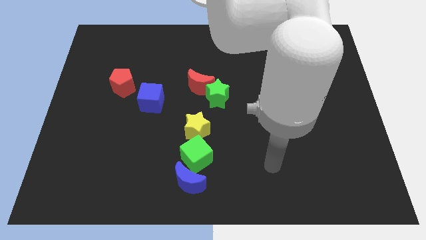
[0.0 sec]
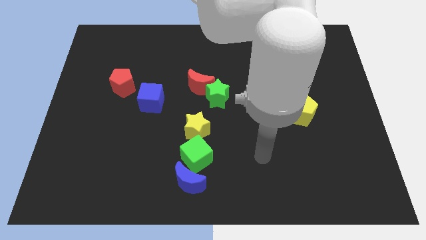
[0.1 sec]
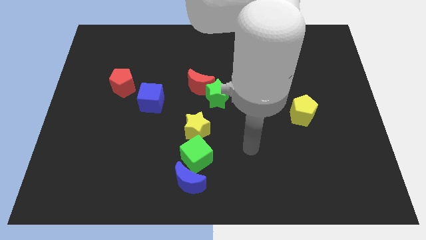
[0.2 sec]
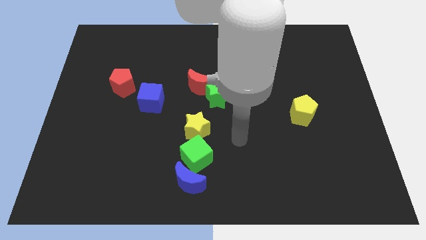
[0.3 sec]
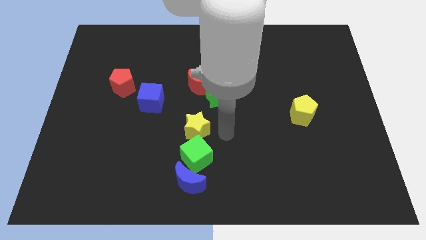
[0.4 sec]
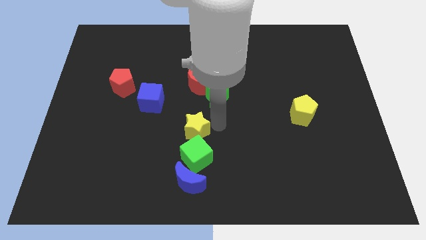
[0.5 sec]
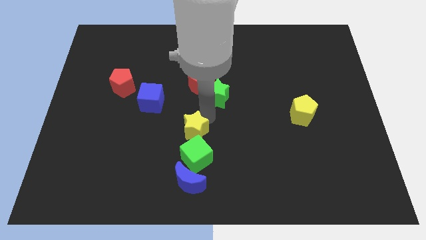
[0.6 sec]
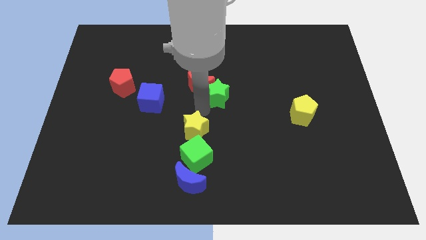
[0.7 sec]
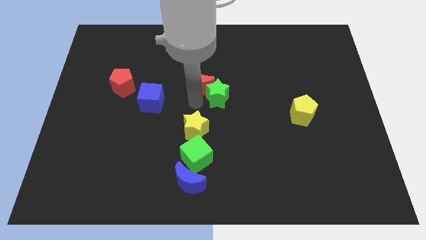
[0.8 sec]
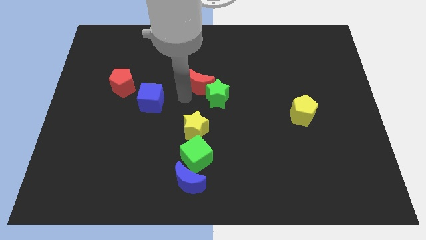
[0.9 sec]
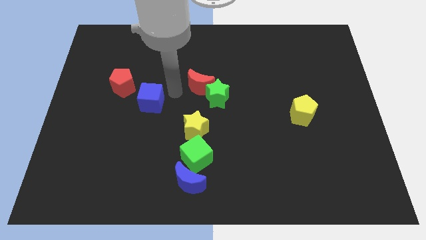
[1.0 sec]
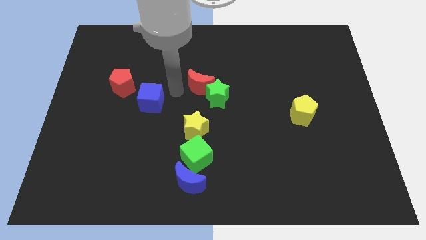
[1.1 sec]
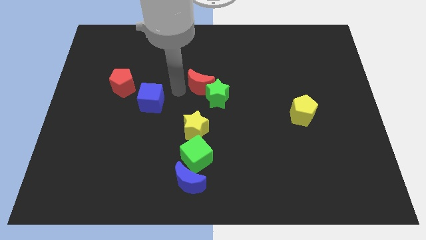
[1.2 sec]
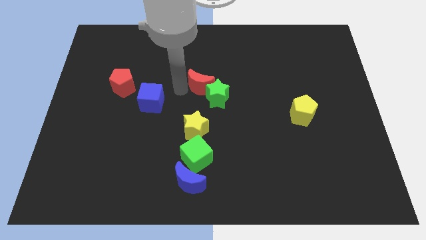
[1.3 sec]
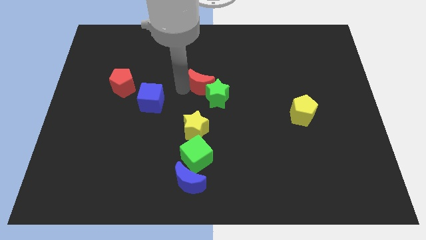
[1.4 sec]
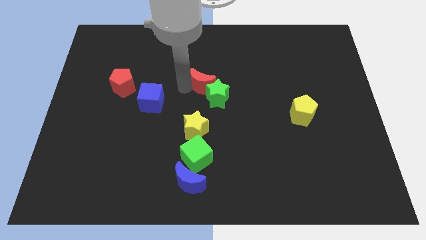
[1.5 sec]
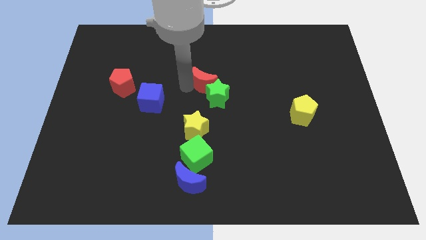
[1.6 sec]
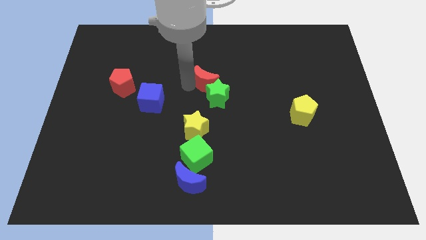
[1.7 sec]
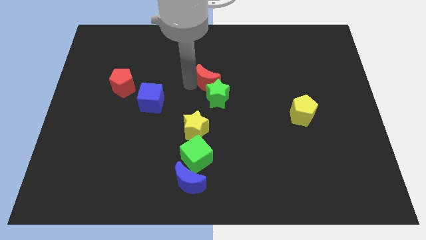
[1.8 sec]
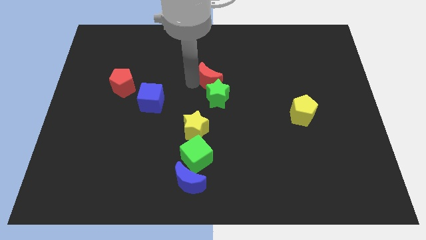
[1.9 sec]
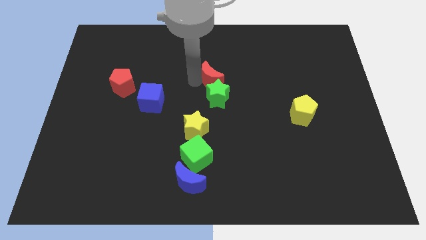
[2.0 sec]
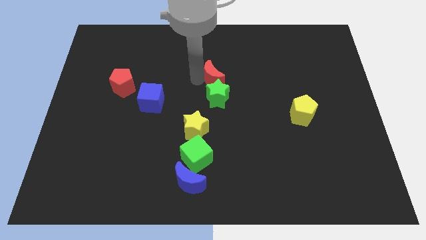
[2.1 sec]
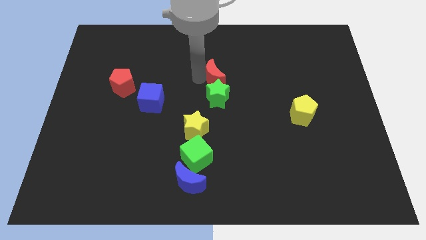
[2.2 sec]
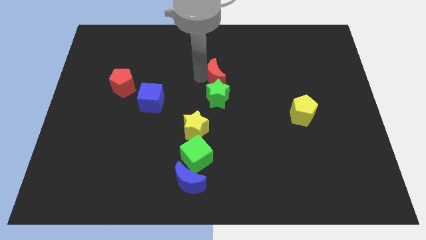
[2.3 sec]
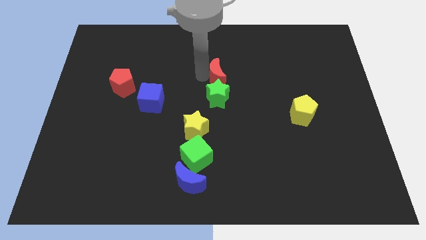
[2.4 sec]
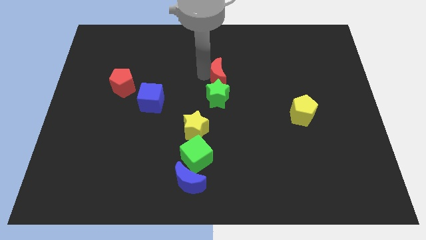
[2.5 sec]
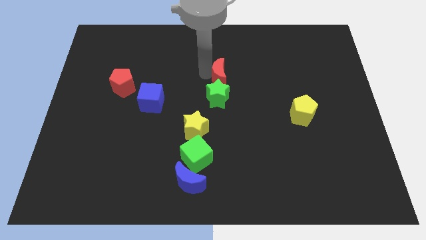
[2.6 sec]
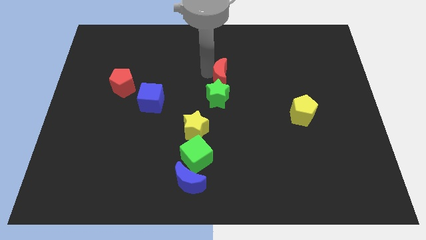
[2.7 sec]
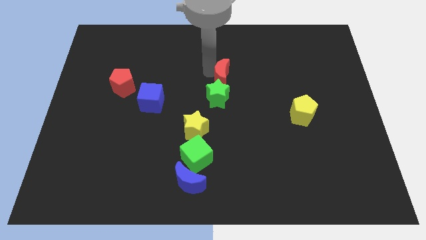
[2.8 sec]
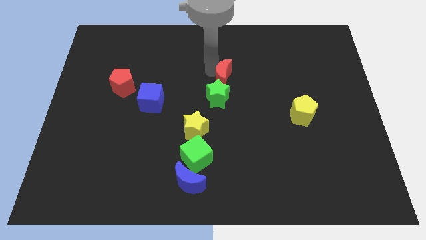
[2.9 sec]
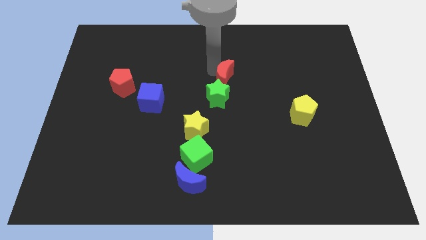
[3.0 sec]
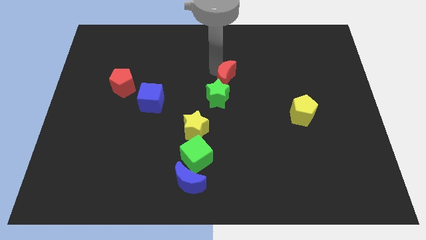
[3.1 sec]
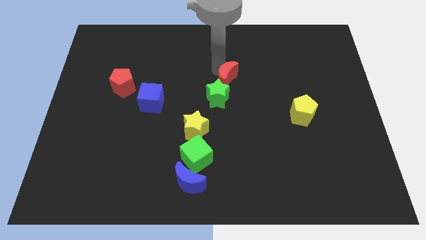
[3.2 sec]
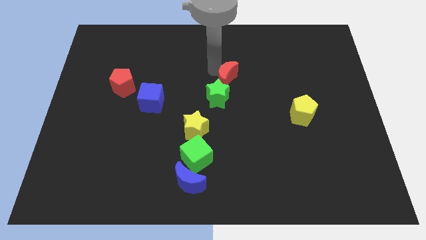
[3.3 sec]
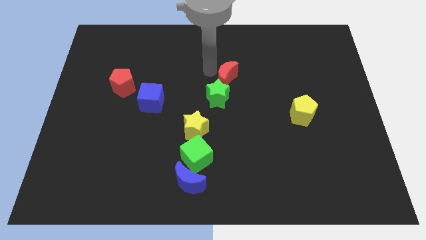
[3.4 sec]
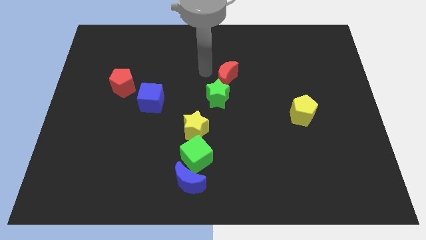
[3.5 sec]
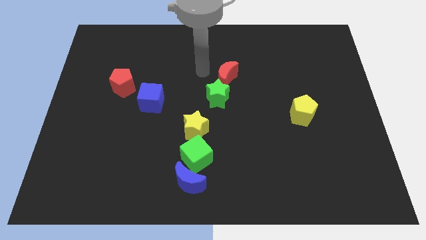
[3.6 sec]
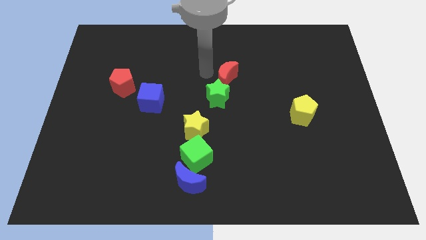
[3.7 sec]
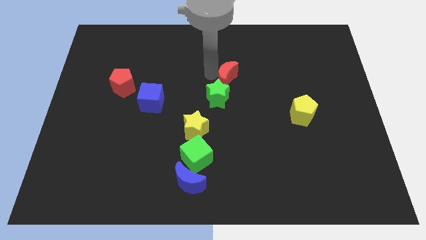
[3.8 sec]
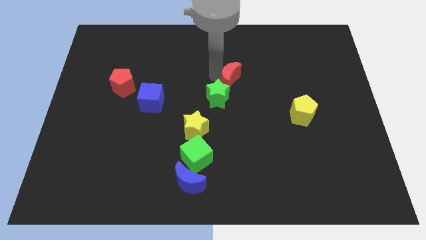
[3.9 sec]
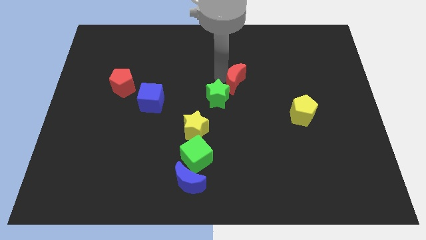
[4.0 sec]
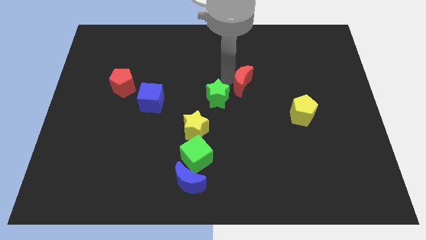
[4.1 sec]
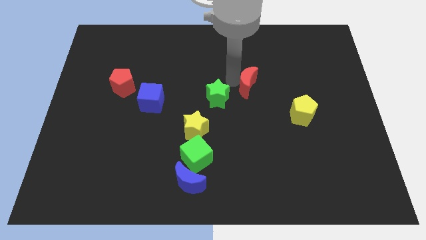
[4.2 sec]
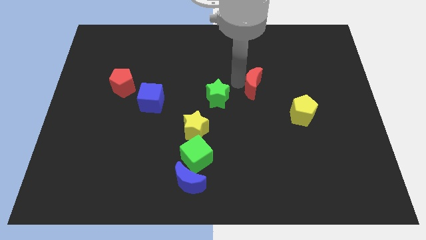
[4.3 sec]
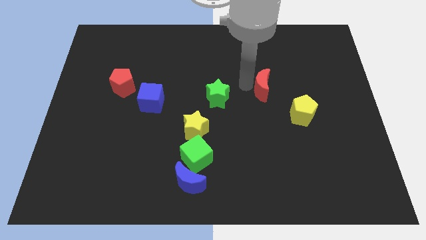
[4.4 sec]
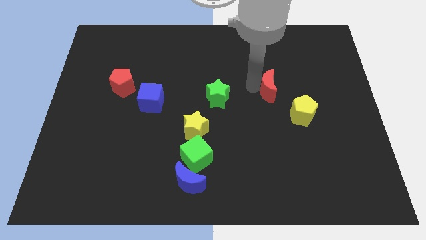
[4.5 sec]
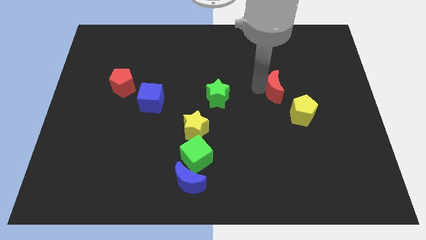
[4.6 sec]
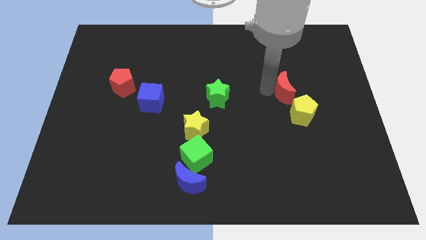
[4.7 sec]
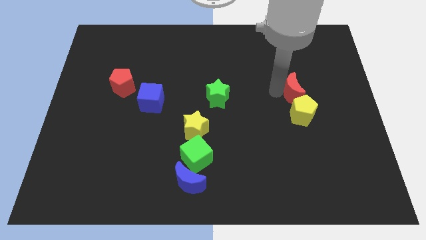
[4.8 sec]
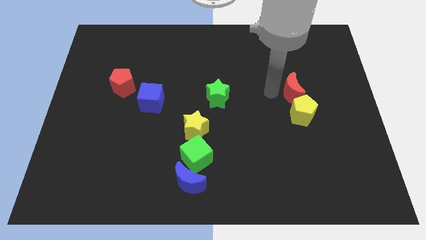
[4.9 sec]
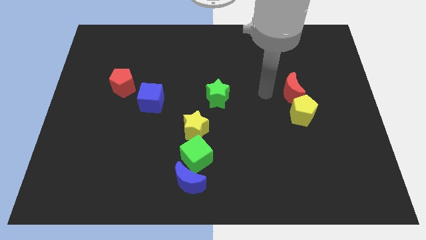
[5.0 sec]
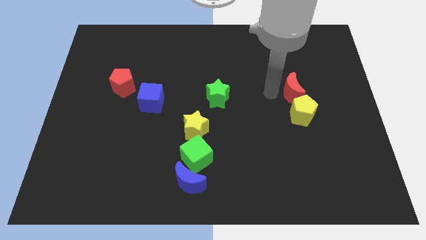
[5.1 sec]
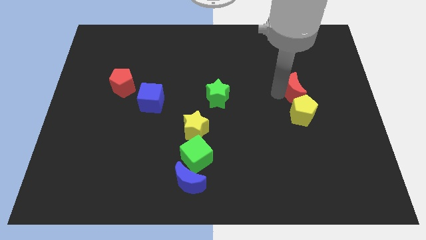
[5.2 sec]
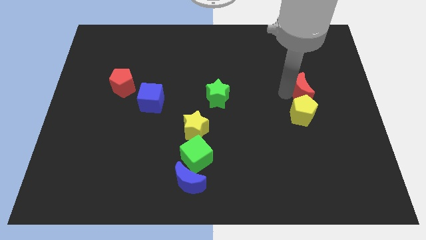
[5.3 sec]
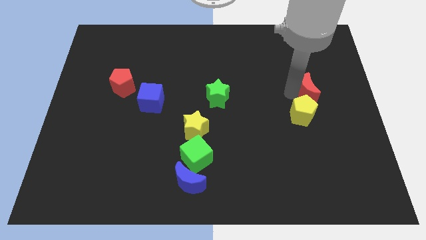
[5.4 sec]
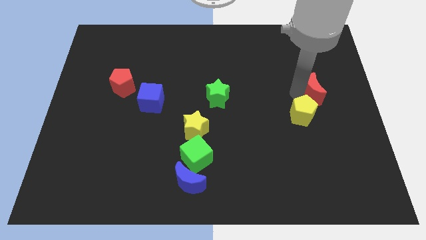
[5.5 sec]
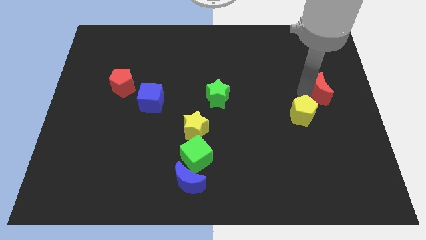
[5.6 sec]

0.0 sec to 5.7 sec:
slide the red moon to the right side of the board
